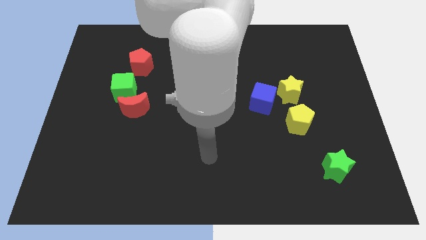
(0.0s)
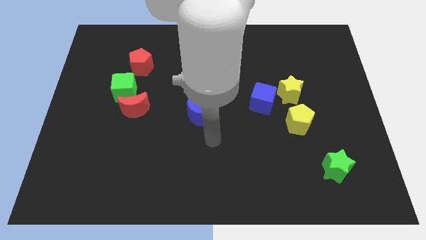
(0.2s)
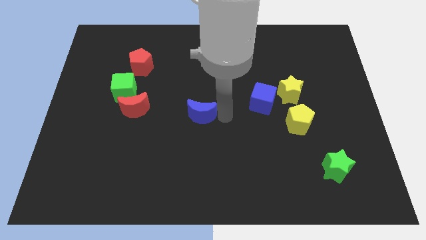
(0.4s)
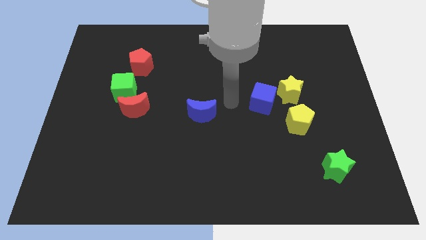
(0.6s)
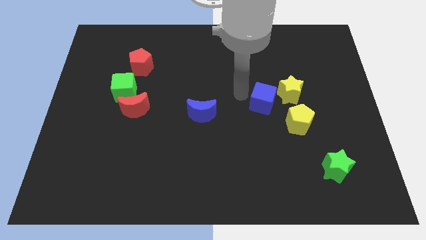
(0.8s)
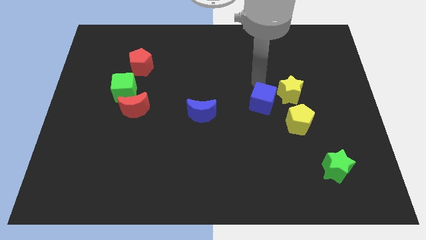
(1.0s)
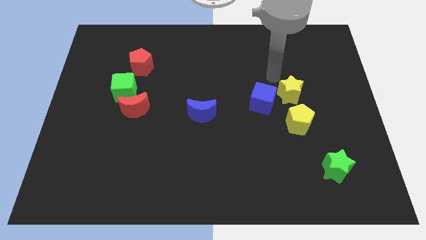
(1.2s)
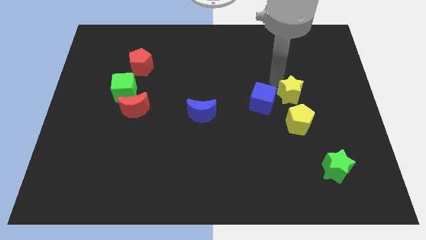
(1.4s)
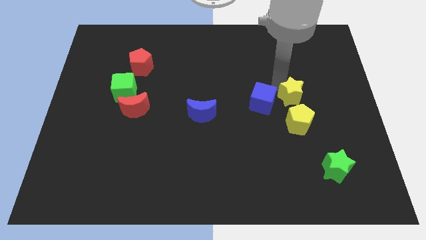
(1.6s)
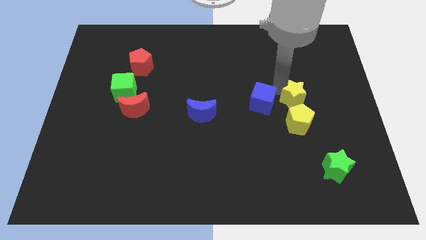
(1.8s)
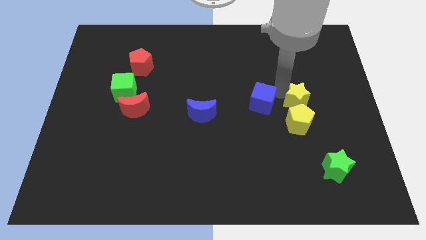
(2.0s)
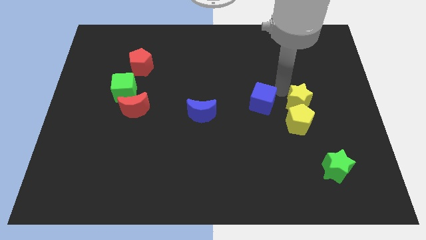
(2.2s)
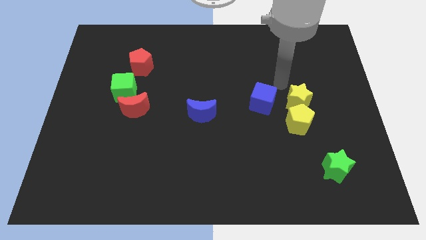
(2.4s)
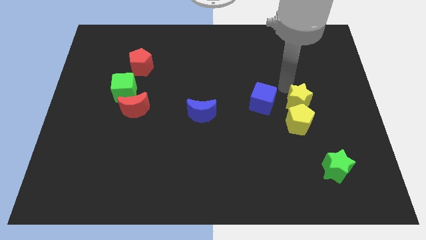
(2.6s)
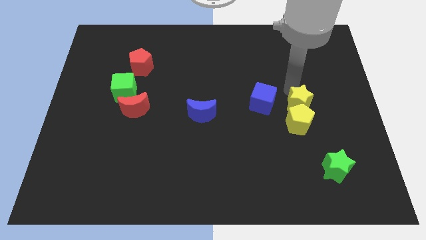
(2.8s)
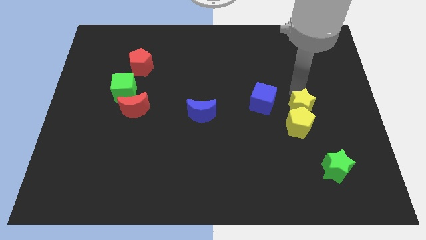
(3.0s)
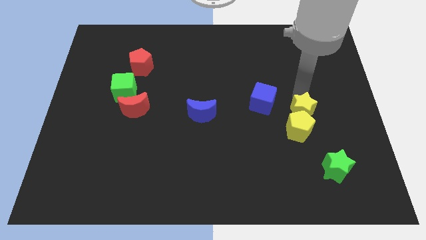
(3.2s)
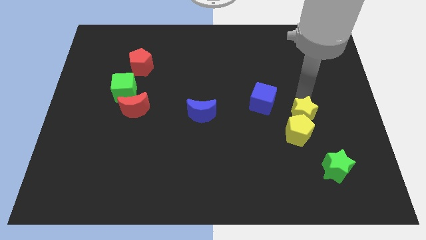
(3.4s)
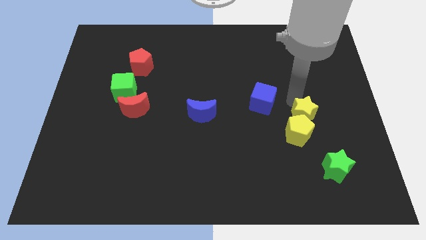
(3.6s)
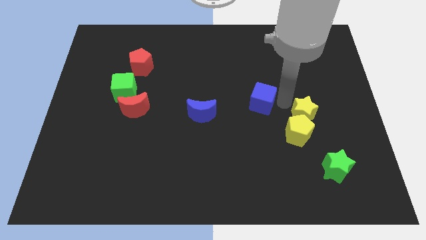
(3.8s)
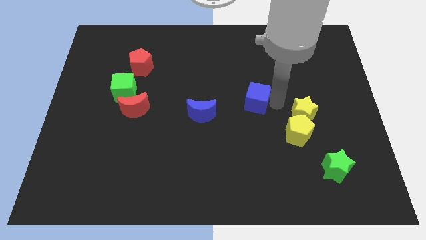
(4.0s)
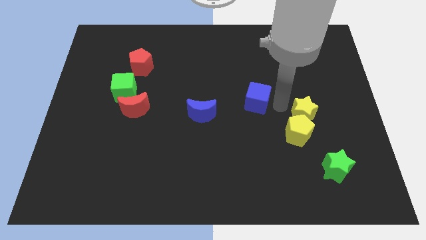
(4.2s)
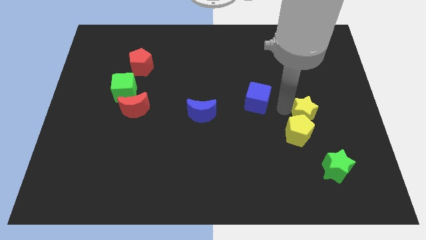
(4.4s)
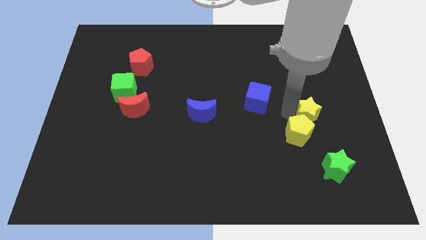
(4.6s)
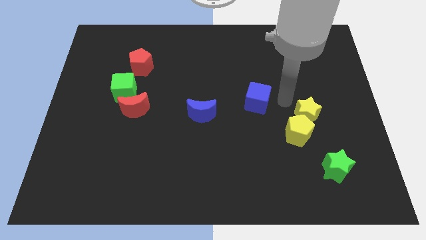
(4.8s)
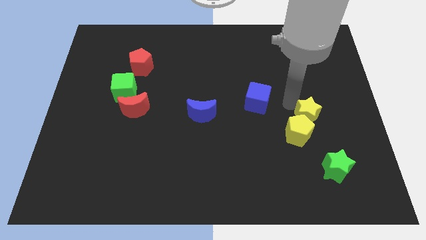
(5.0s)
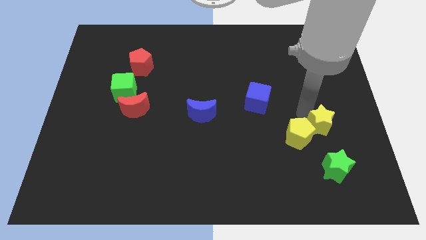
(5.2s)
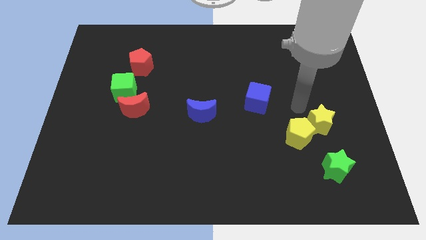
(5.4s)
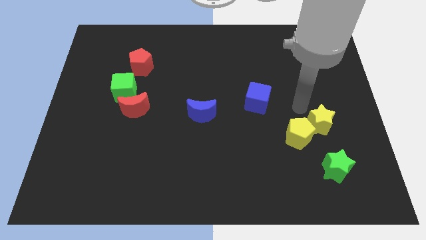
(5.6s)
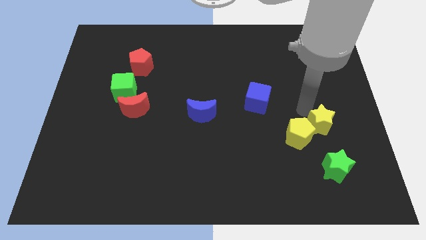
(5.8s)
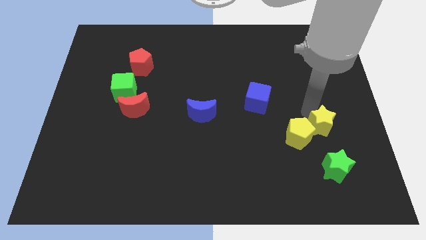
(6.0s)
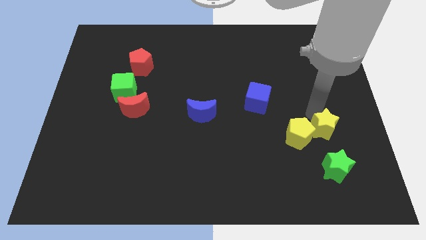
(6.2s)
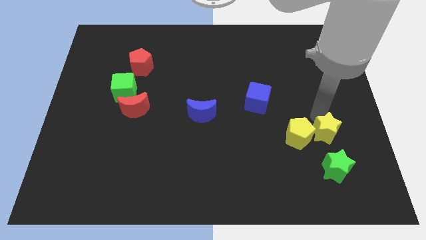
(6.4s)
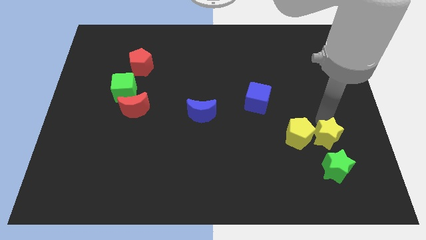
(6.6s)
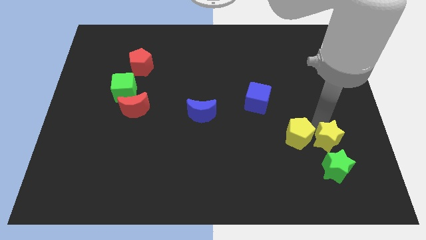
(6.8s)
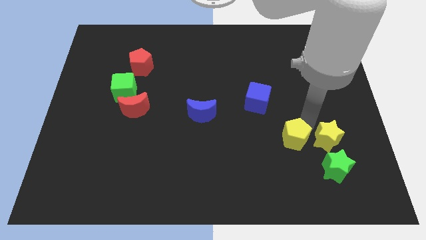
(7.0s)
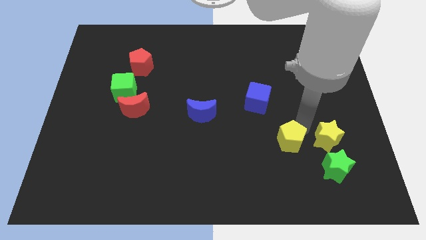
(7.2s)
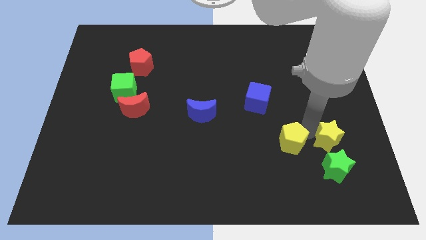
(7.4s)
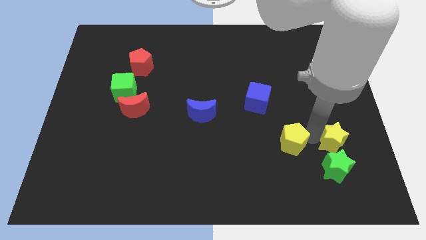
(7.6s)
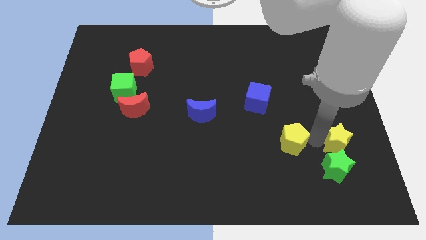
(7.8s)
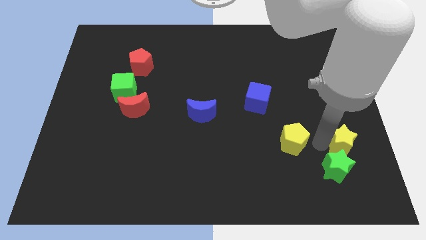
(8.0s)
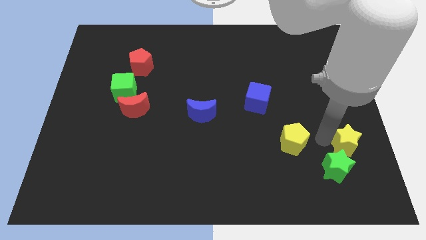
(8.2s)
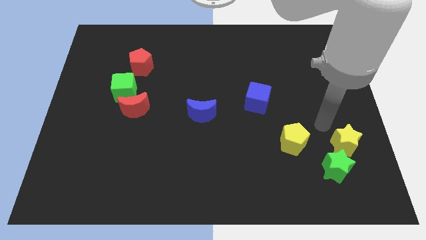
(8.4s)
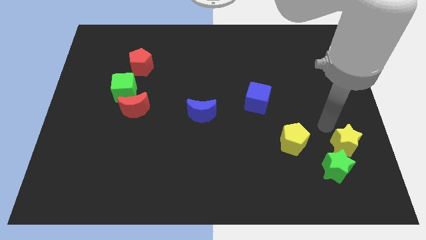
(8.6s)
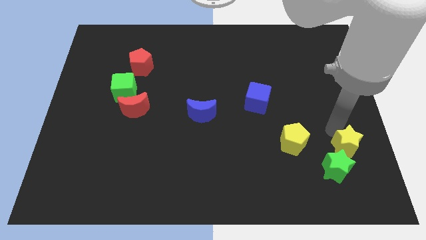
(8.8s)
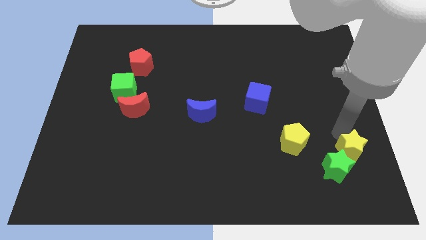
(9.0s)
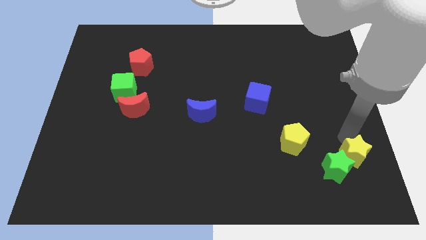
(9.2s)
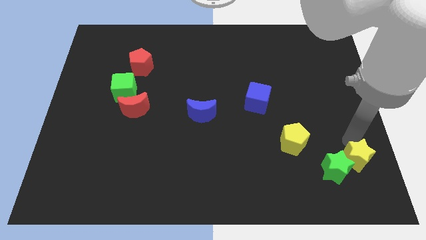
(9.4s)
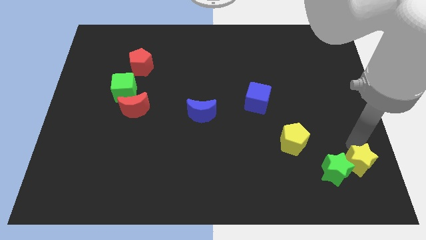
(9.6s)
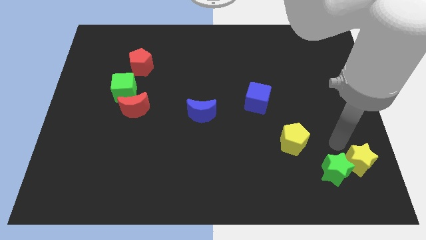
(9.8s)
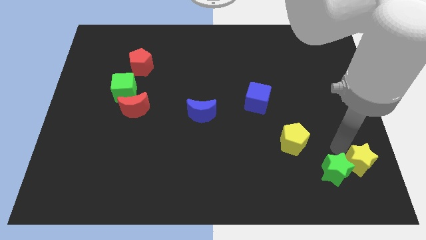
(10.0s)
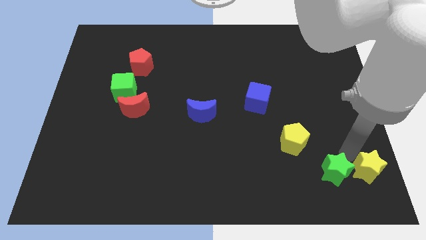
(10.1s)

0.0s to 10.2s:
put the yellow star to the bottom right of the board

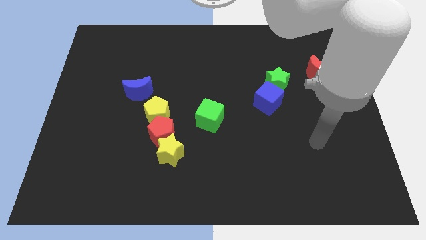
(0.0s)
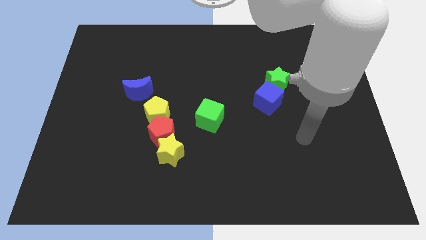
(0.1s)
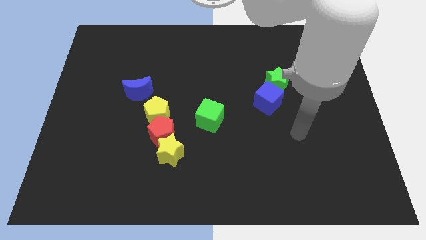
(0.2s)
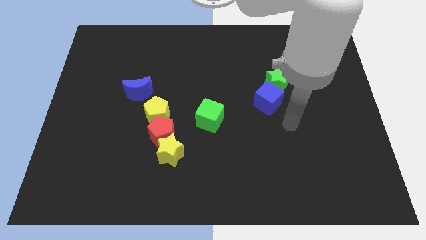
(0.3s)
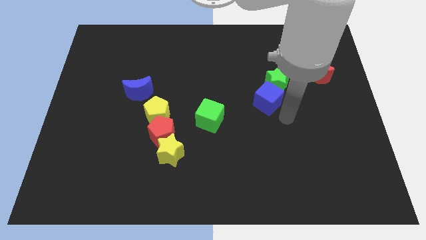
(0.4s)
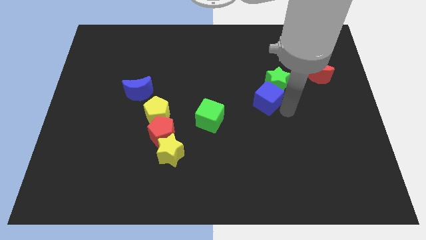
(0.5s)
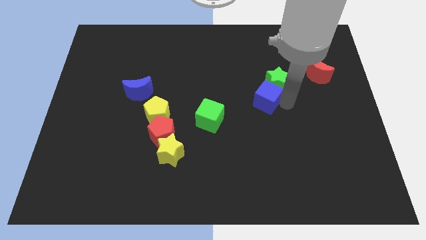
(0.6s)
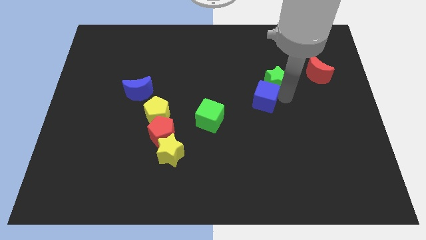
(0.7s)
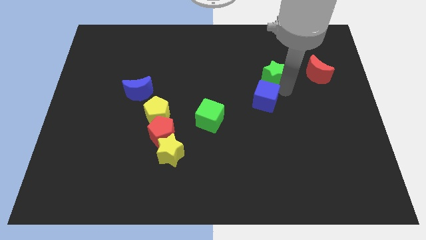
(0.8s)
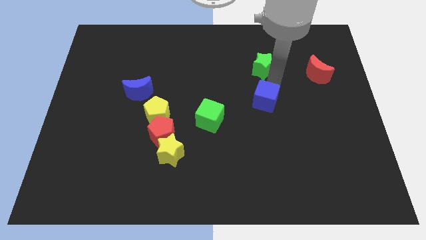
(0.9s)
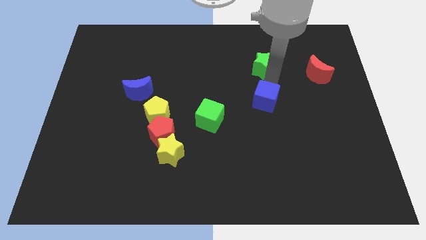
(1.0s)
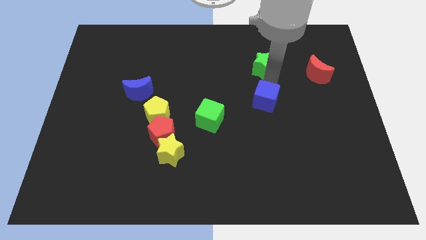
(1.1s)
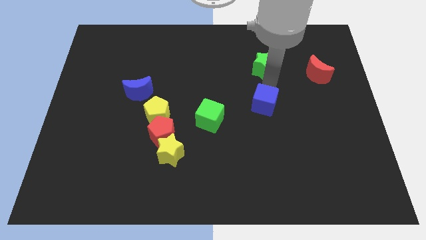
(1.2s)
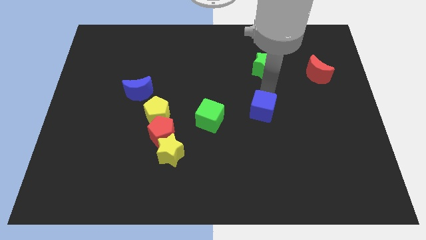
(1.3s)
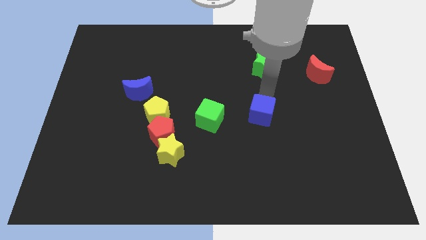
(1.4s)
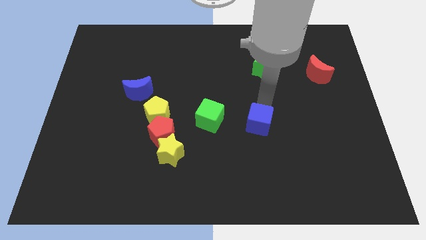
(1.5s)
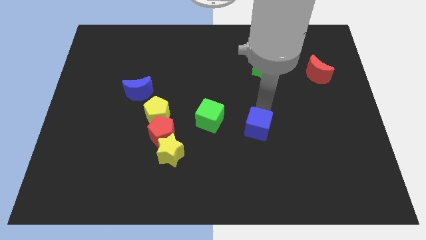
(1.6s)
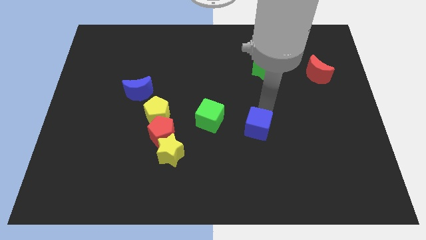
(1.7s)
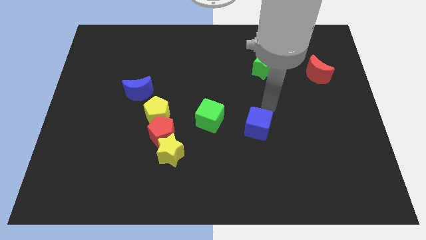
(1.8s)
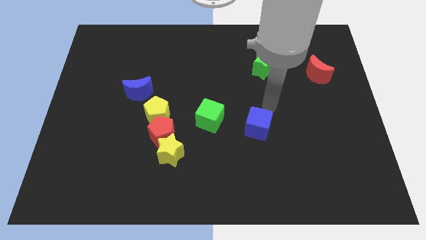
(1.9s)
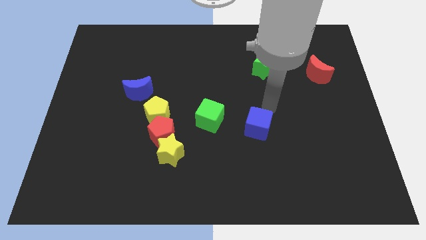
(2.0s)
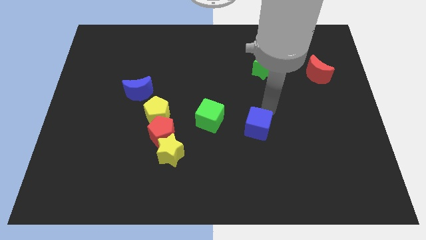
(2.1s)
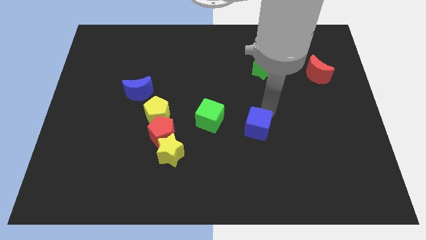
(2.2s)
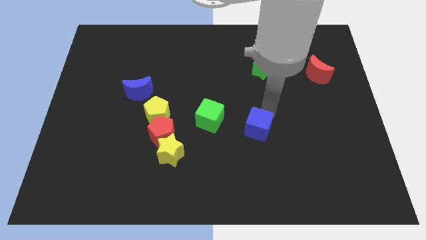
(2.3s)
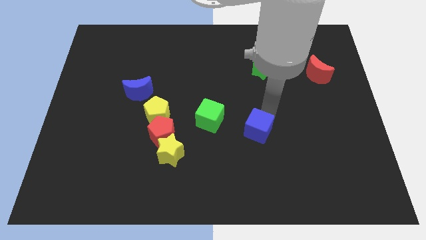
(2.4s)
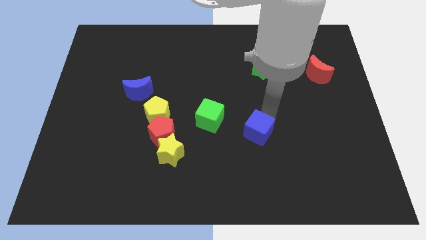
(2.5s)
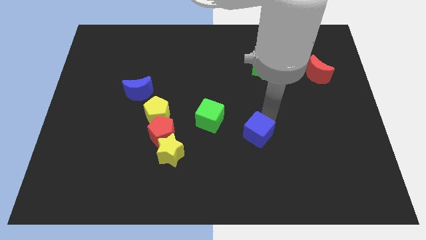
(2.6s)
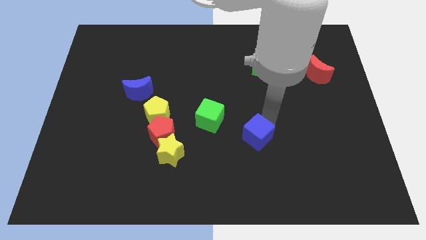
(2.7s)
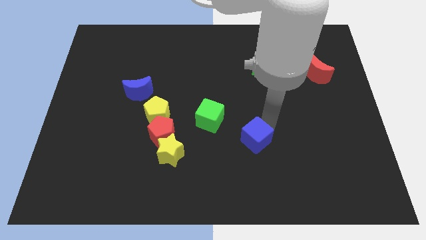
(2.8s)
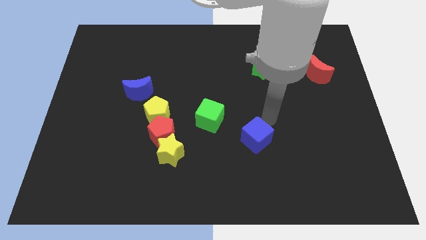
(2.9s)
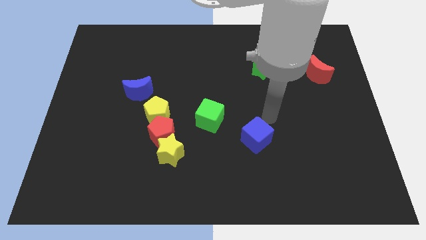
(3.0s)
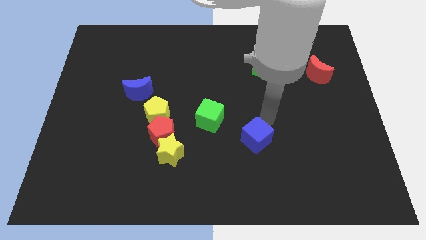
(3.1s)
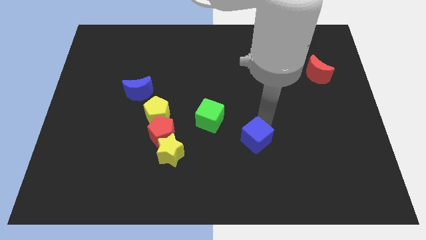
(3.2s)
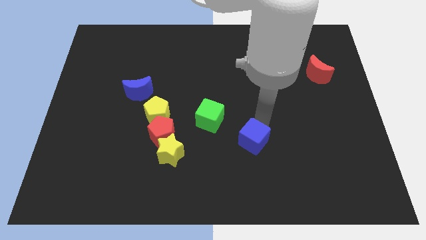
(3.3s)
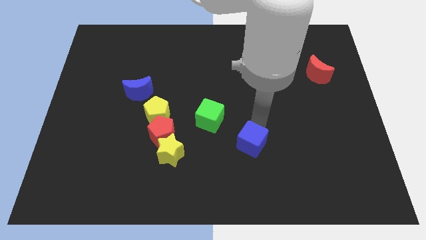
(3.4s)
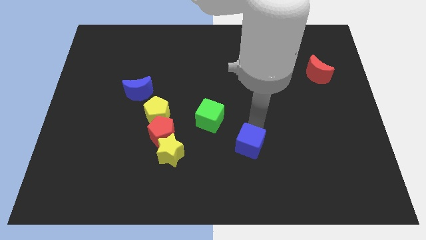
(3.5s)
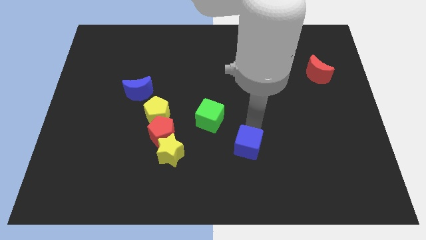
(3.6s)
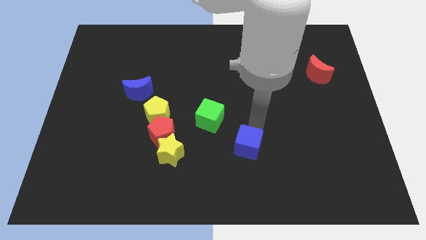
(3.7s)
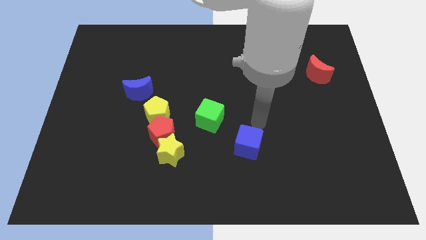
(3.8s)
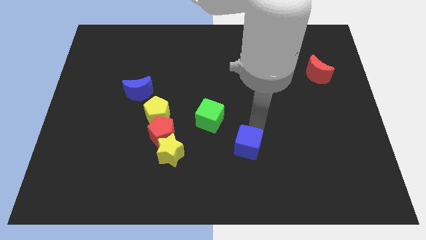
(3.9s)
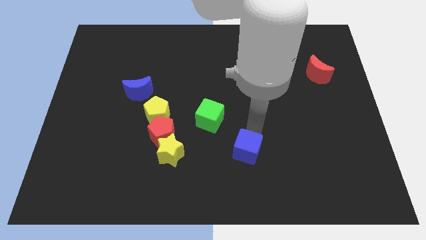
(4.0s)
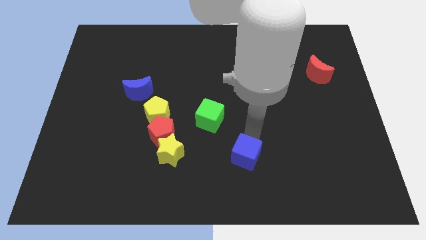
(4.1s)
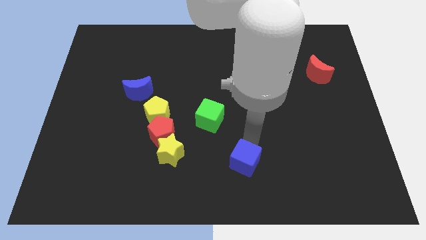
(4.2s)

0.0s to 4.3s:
slide the blue cube to the bottom side
